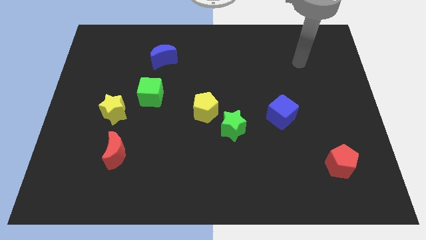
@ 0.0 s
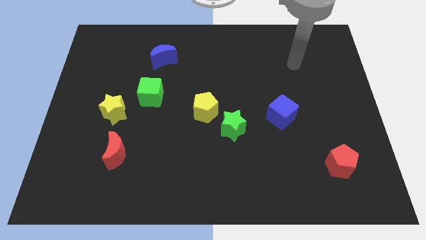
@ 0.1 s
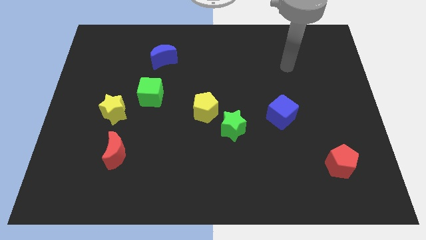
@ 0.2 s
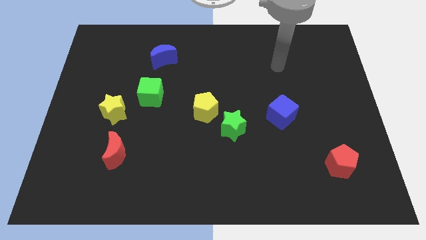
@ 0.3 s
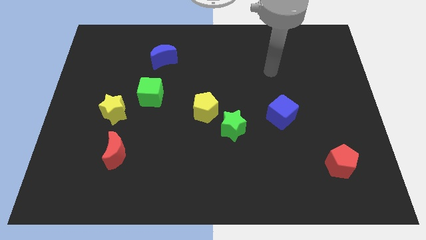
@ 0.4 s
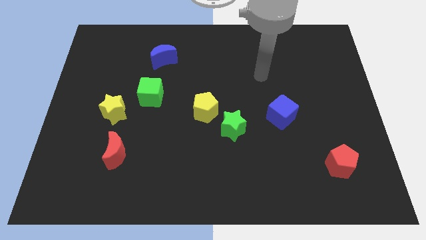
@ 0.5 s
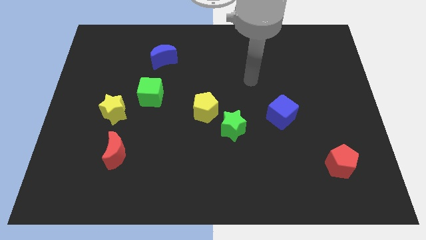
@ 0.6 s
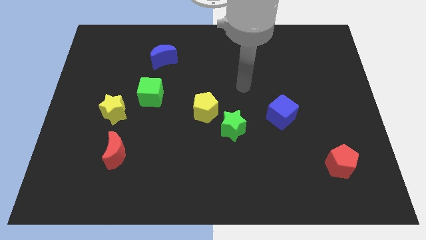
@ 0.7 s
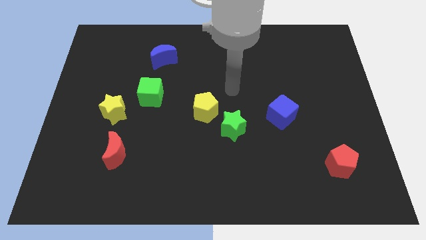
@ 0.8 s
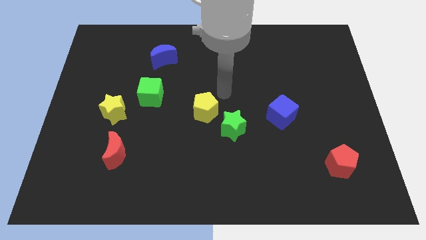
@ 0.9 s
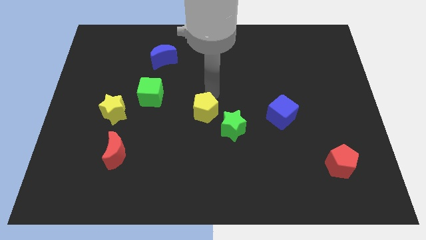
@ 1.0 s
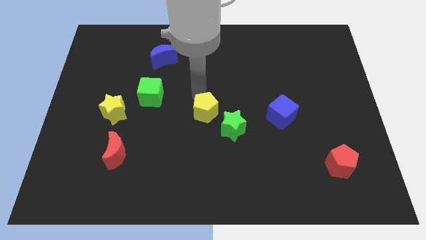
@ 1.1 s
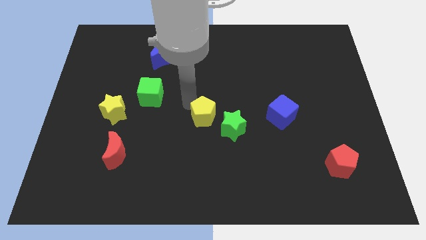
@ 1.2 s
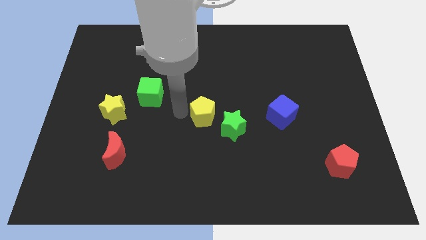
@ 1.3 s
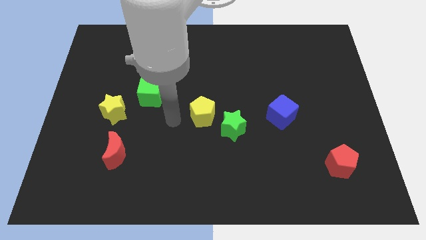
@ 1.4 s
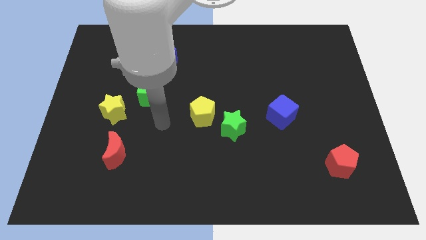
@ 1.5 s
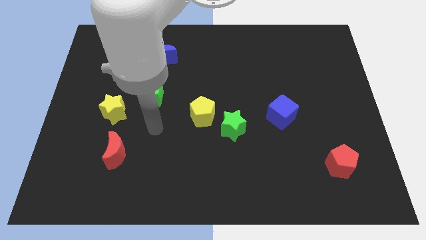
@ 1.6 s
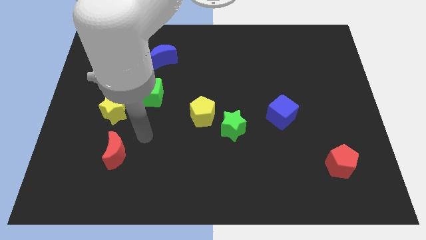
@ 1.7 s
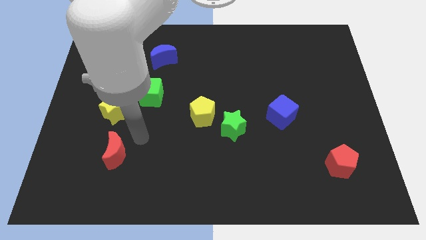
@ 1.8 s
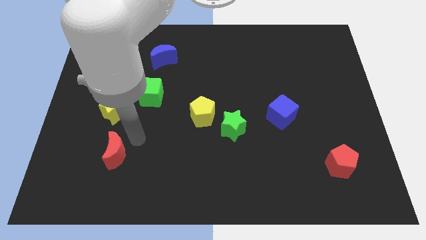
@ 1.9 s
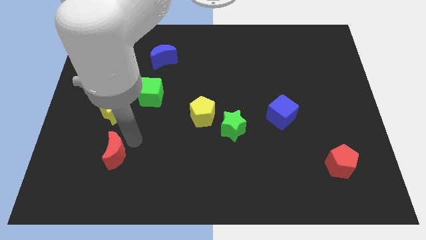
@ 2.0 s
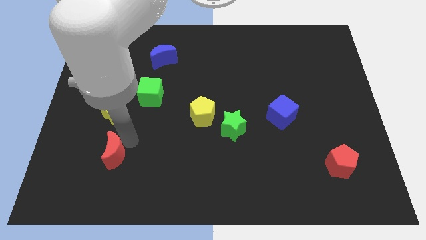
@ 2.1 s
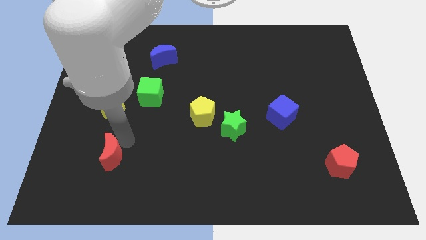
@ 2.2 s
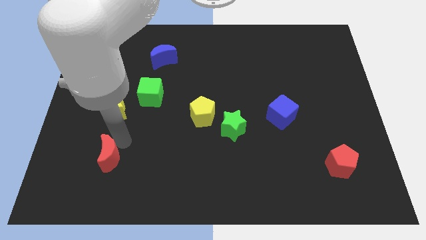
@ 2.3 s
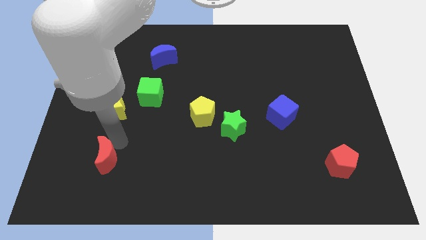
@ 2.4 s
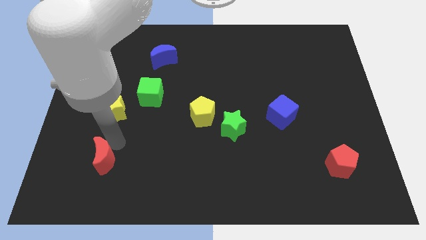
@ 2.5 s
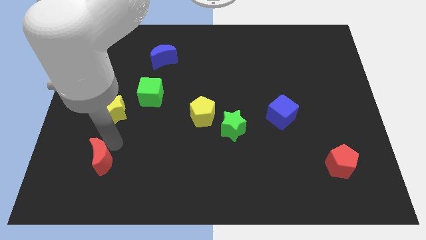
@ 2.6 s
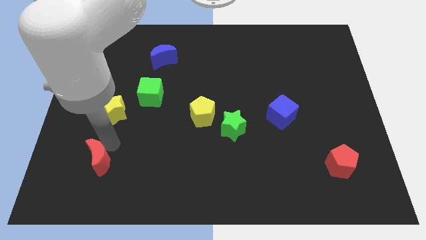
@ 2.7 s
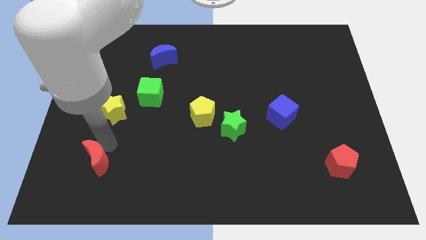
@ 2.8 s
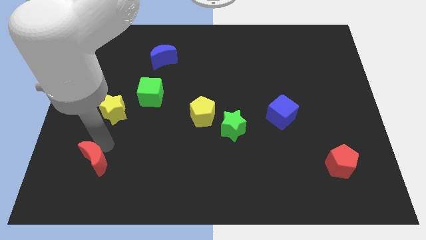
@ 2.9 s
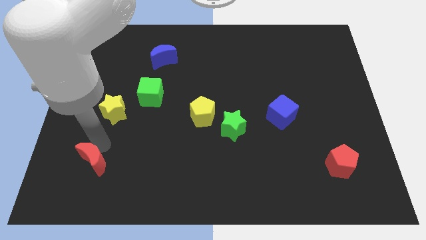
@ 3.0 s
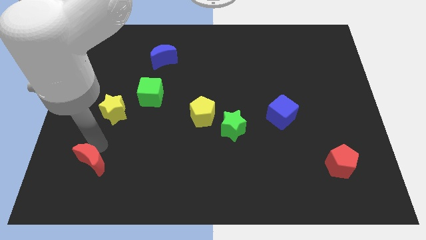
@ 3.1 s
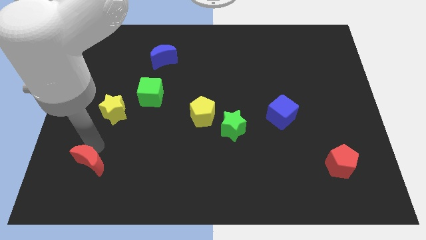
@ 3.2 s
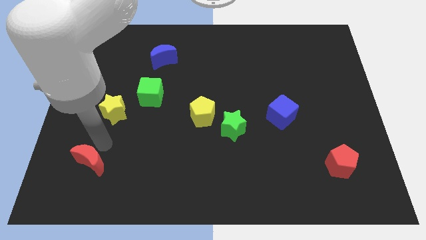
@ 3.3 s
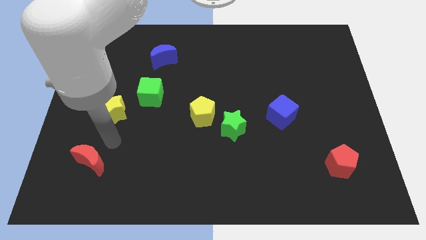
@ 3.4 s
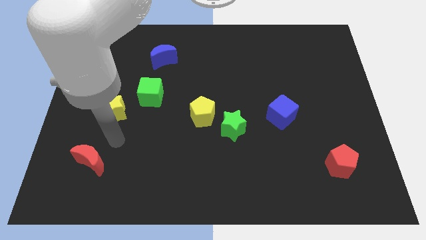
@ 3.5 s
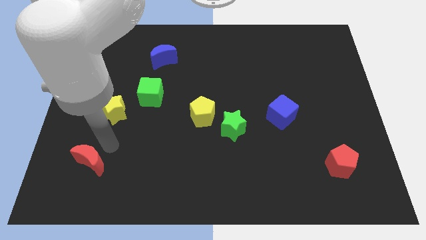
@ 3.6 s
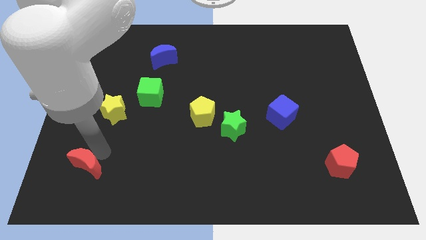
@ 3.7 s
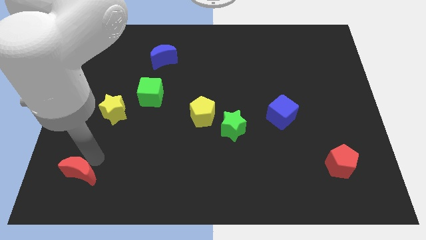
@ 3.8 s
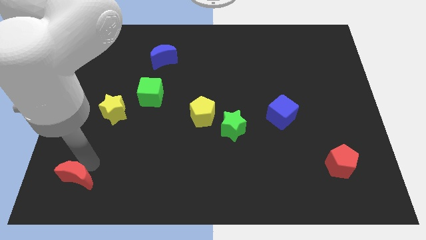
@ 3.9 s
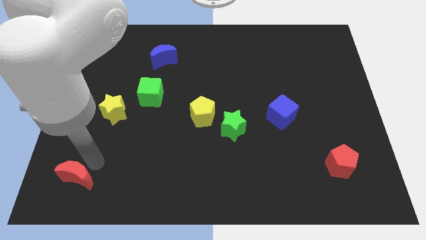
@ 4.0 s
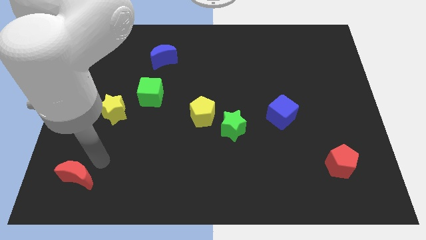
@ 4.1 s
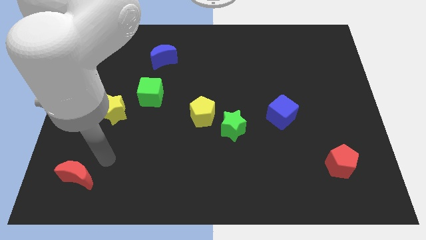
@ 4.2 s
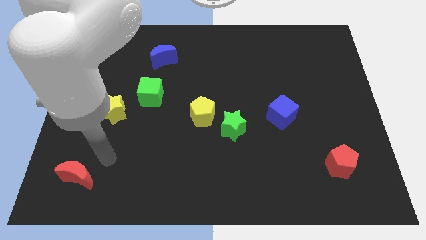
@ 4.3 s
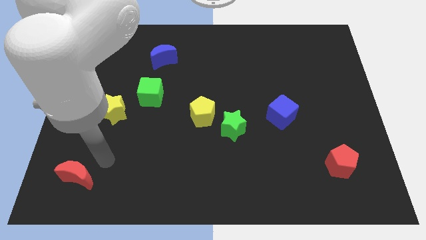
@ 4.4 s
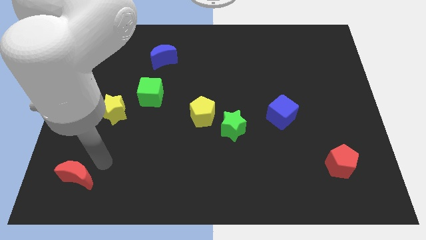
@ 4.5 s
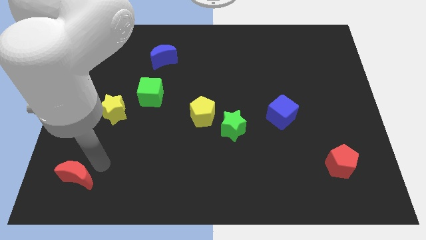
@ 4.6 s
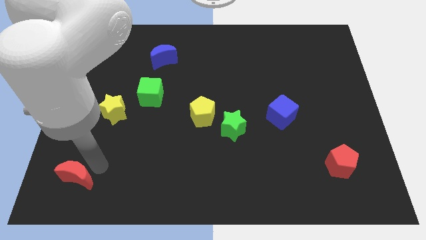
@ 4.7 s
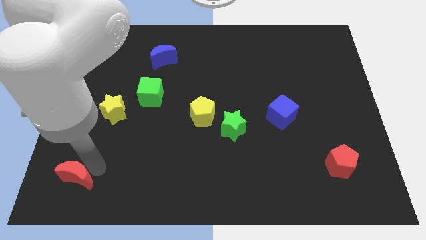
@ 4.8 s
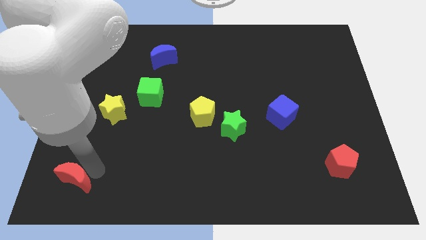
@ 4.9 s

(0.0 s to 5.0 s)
push the red moon to the lower left corner

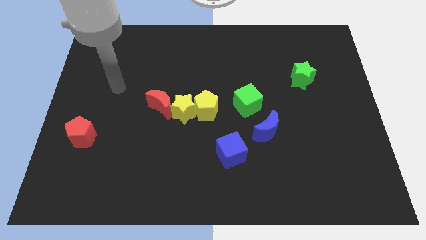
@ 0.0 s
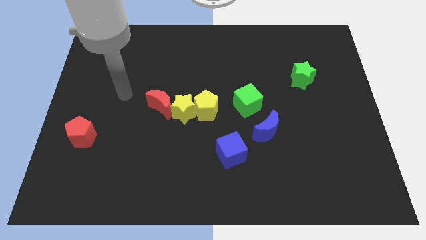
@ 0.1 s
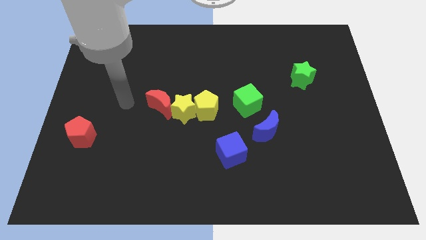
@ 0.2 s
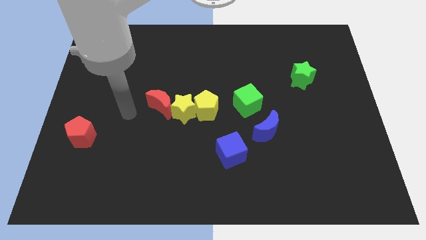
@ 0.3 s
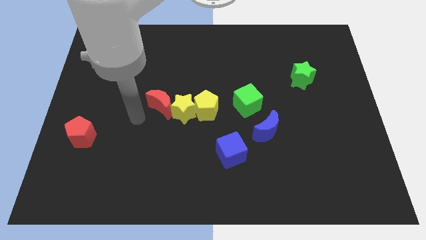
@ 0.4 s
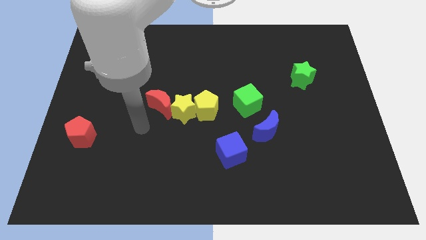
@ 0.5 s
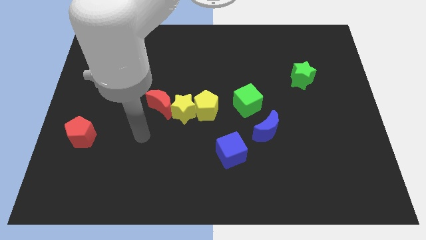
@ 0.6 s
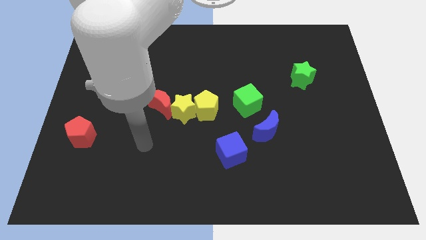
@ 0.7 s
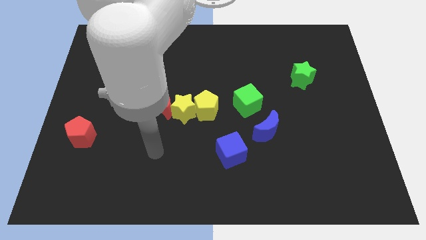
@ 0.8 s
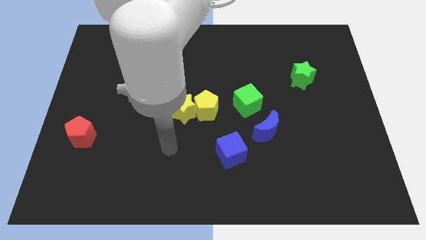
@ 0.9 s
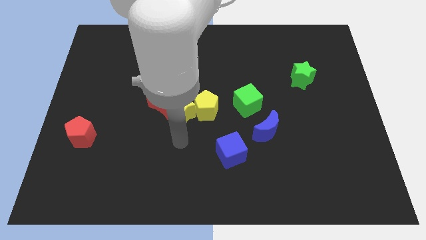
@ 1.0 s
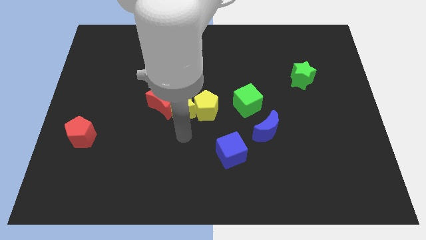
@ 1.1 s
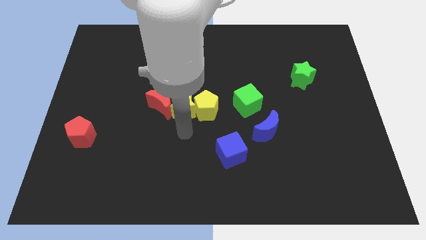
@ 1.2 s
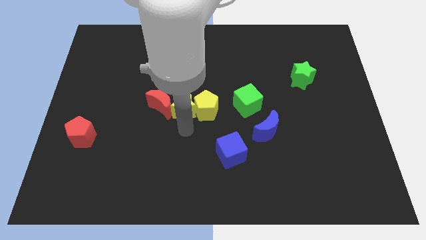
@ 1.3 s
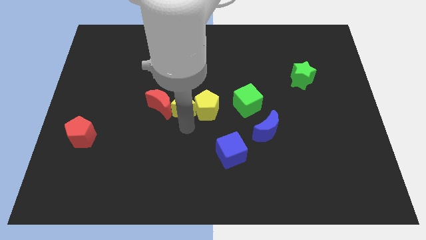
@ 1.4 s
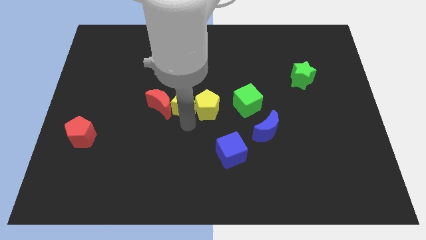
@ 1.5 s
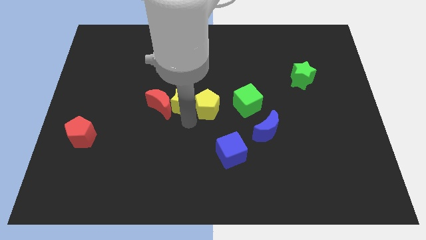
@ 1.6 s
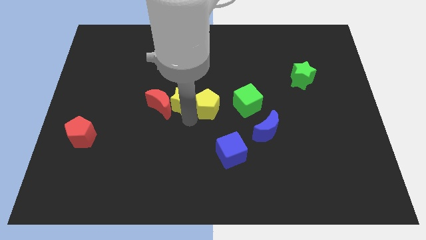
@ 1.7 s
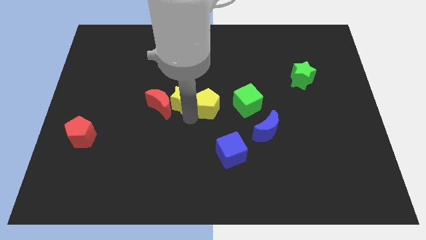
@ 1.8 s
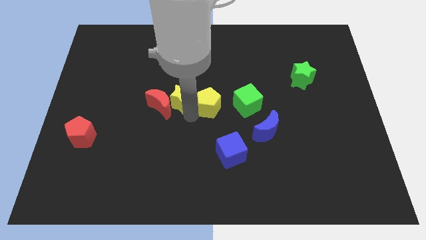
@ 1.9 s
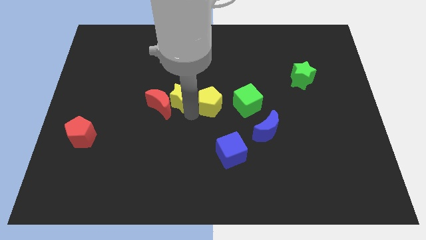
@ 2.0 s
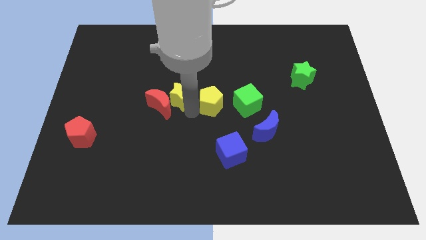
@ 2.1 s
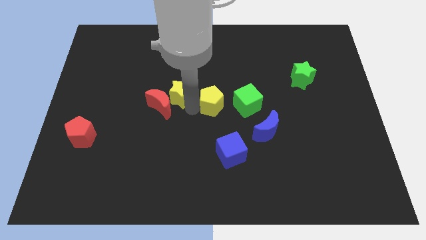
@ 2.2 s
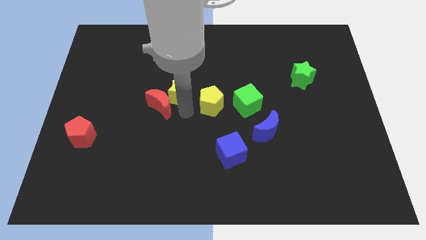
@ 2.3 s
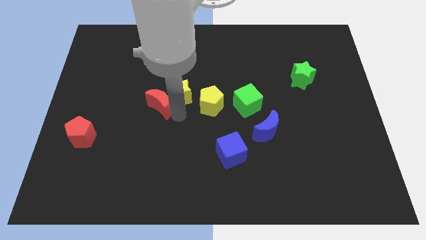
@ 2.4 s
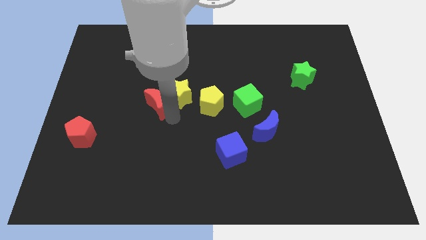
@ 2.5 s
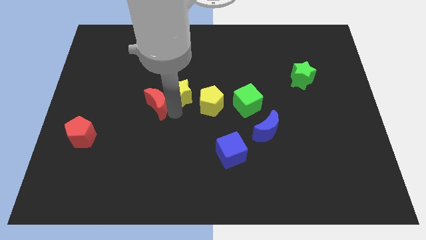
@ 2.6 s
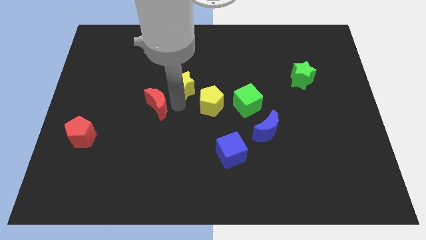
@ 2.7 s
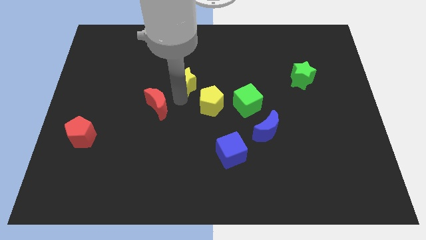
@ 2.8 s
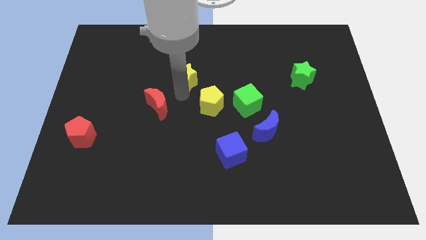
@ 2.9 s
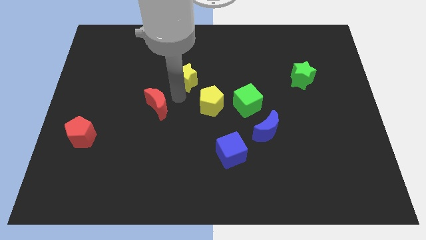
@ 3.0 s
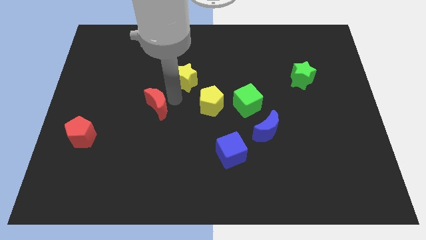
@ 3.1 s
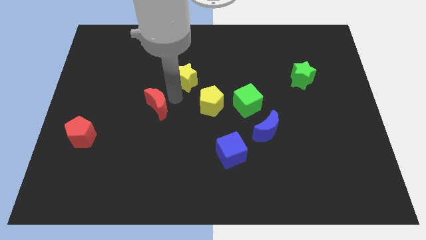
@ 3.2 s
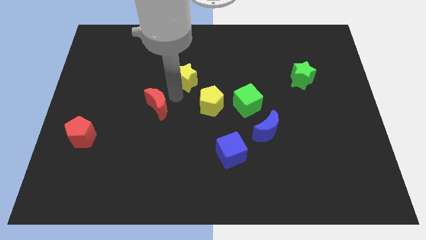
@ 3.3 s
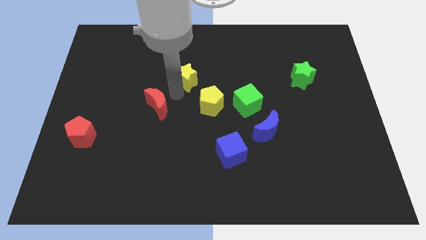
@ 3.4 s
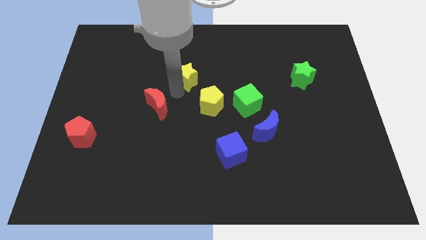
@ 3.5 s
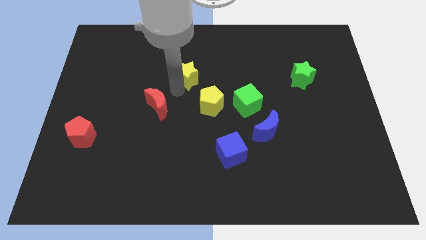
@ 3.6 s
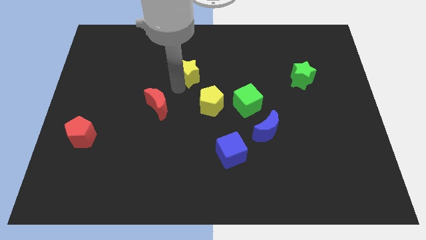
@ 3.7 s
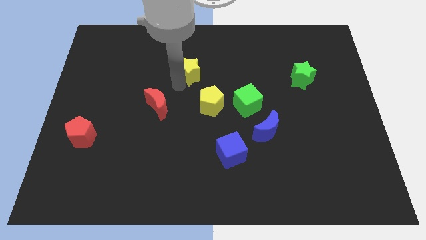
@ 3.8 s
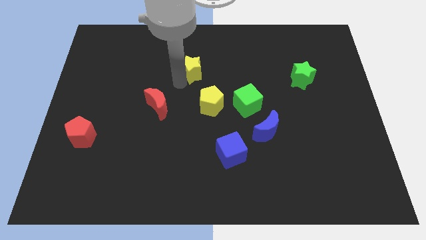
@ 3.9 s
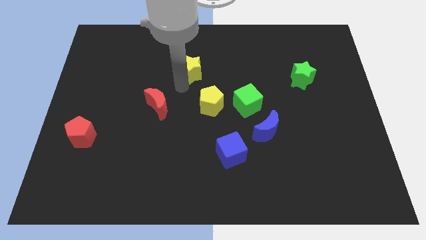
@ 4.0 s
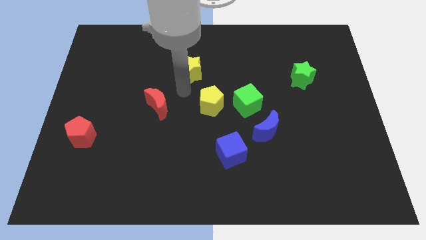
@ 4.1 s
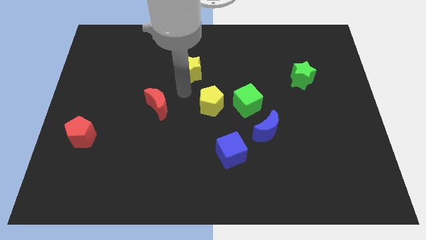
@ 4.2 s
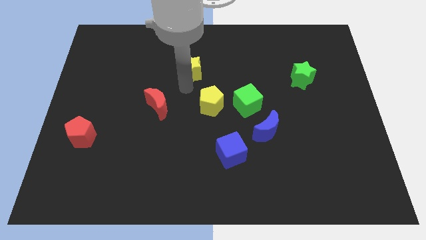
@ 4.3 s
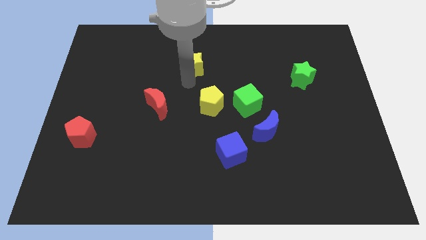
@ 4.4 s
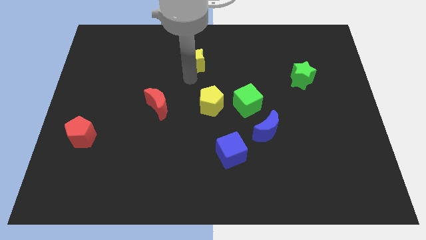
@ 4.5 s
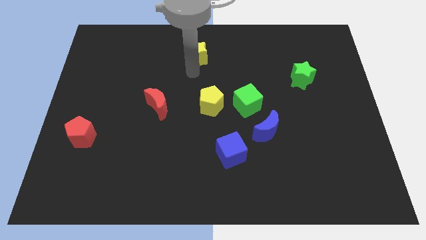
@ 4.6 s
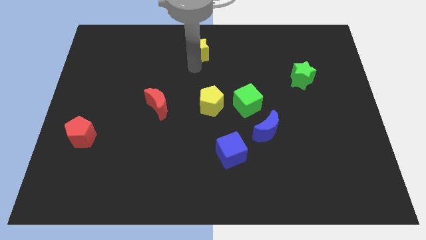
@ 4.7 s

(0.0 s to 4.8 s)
slide the yellow star to the top
